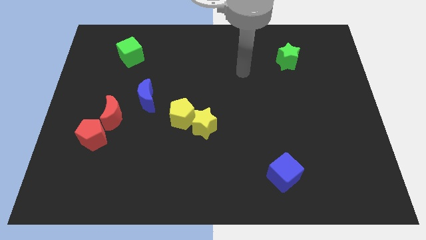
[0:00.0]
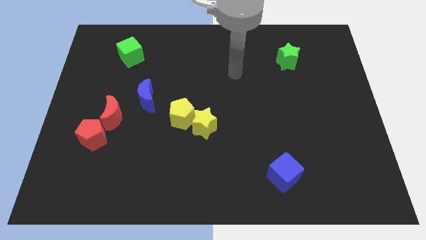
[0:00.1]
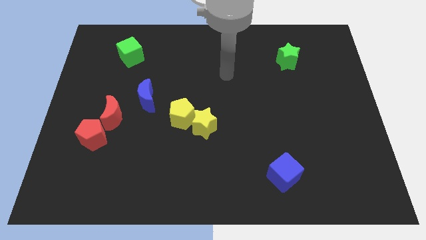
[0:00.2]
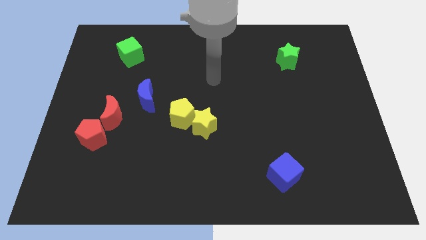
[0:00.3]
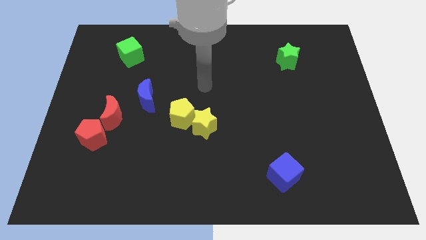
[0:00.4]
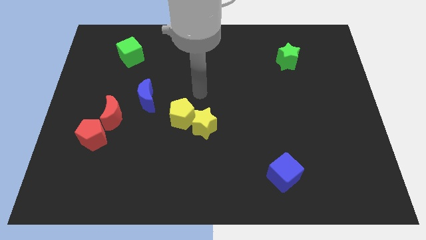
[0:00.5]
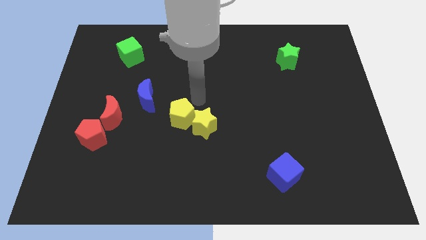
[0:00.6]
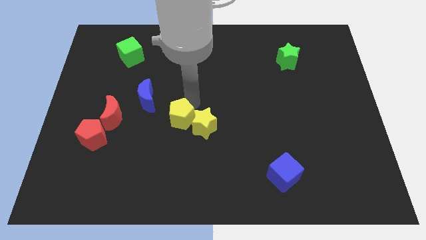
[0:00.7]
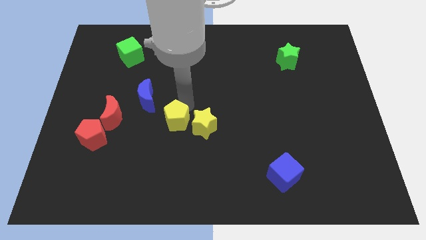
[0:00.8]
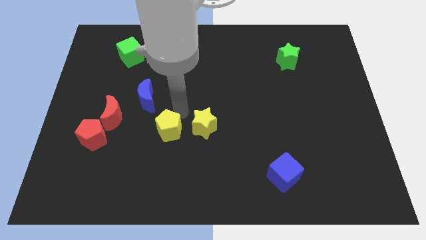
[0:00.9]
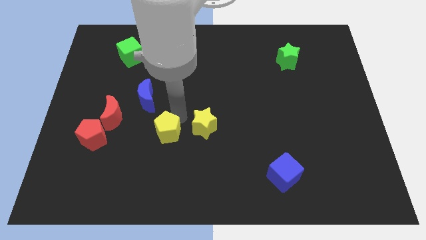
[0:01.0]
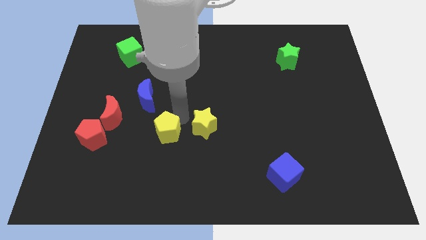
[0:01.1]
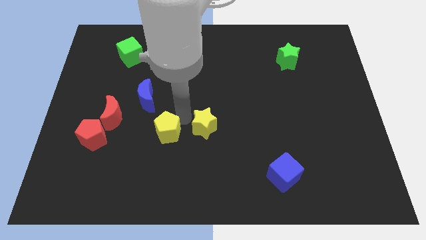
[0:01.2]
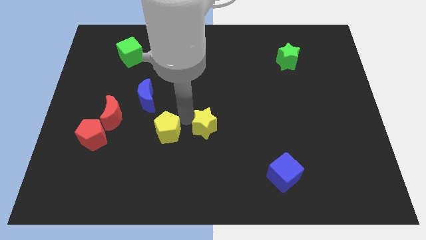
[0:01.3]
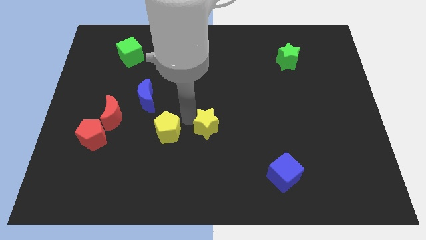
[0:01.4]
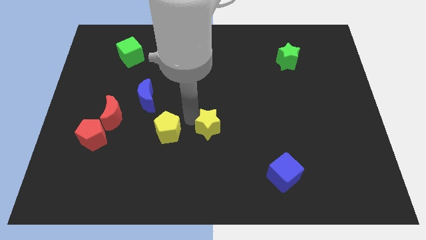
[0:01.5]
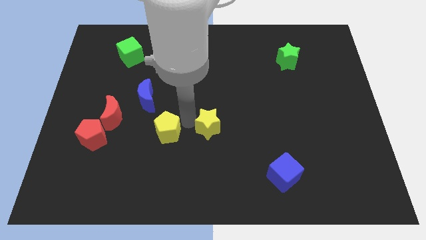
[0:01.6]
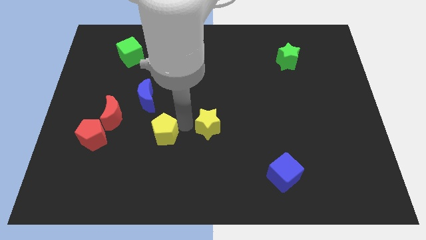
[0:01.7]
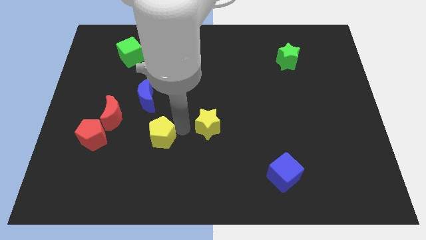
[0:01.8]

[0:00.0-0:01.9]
pull the yellow star apart from the yellow pentagon

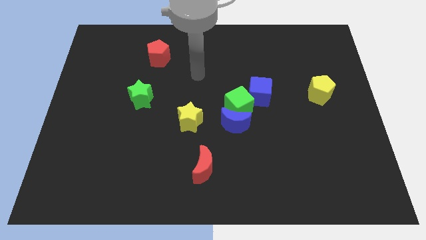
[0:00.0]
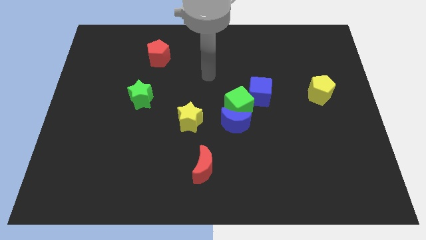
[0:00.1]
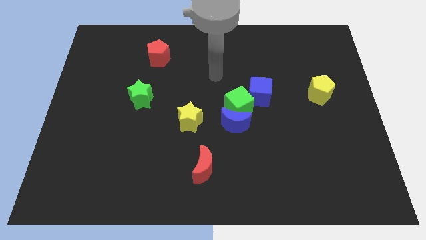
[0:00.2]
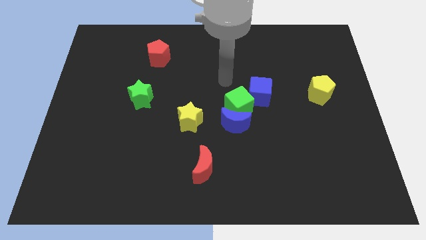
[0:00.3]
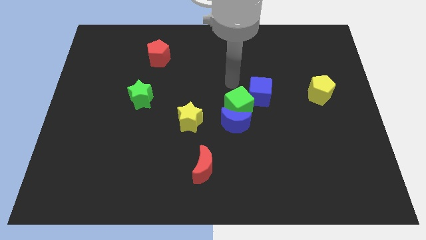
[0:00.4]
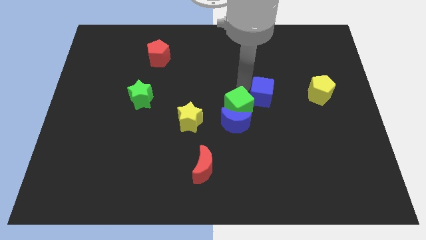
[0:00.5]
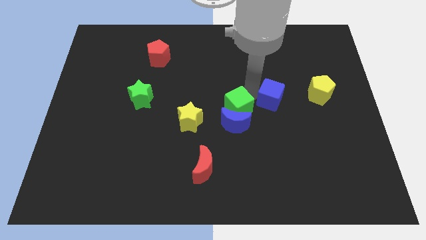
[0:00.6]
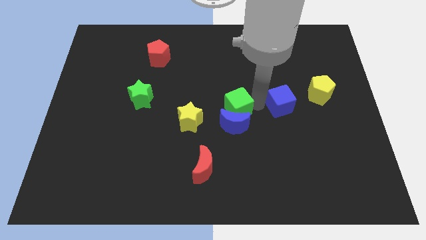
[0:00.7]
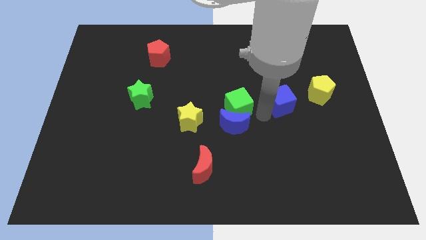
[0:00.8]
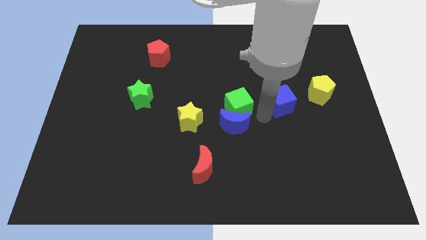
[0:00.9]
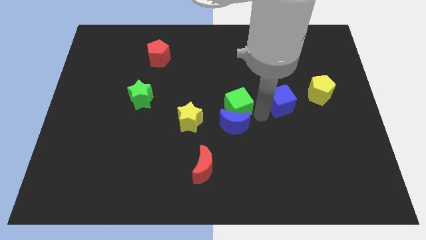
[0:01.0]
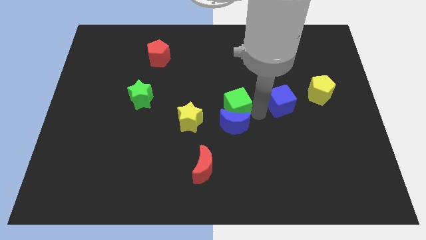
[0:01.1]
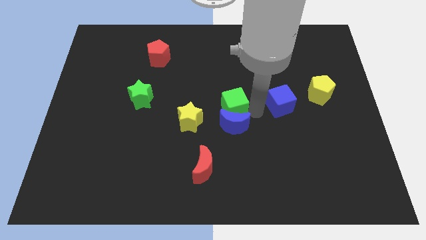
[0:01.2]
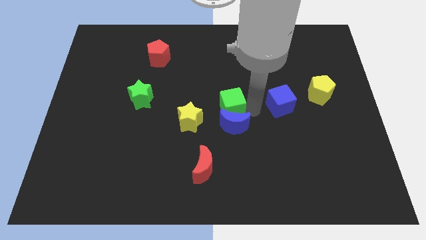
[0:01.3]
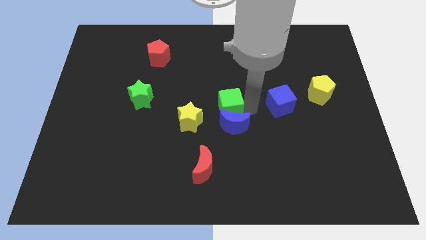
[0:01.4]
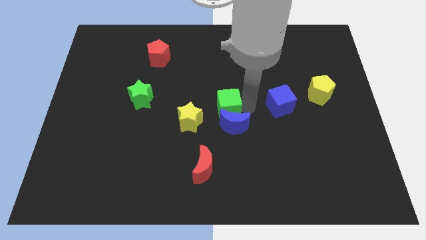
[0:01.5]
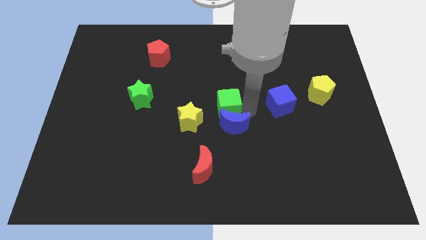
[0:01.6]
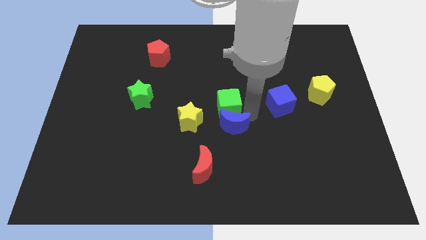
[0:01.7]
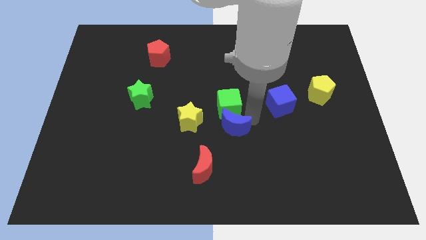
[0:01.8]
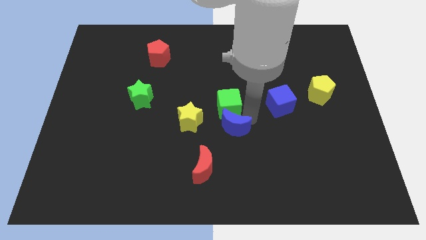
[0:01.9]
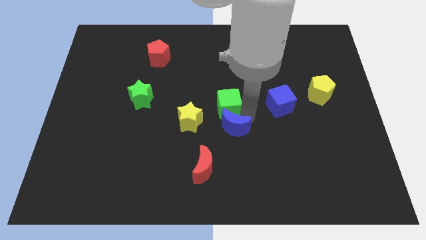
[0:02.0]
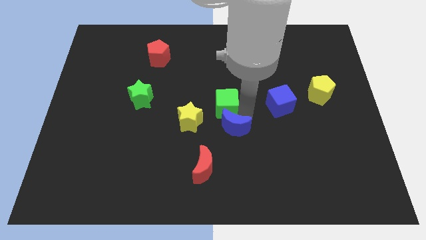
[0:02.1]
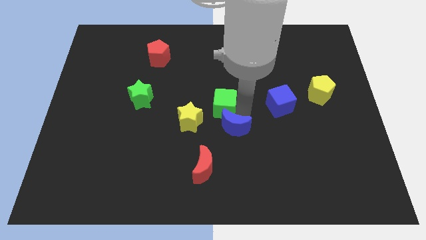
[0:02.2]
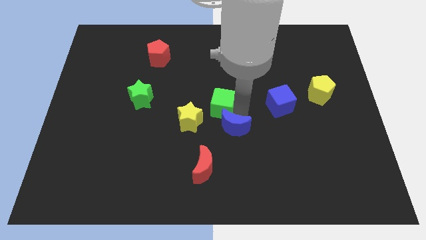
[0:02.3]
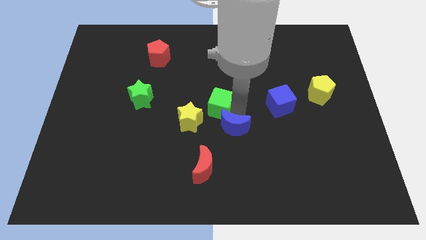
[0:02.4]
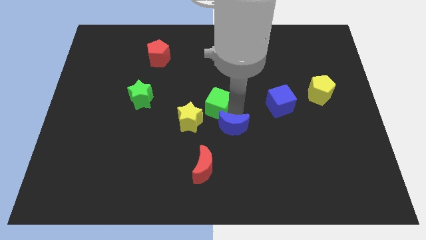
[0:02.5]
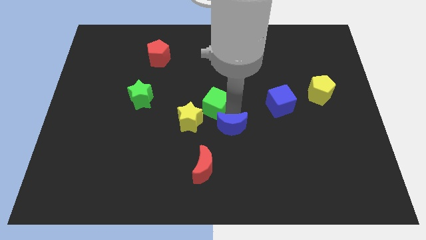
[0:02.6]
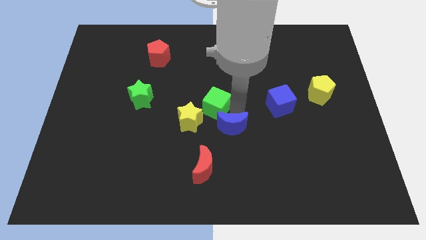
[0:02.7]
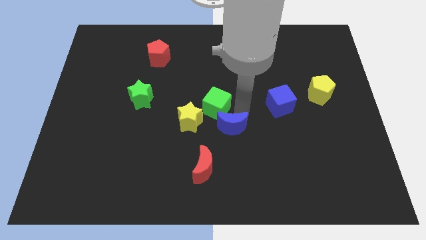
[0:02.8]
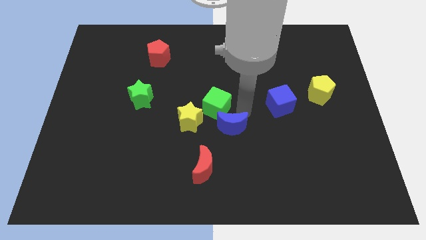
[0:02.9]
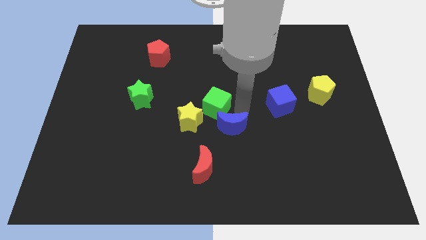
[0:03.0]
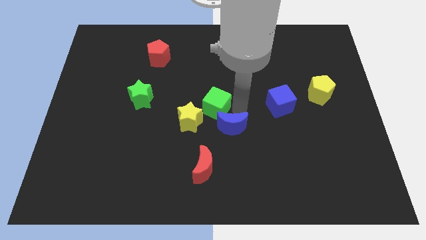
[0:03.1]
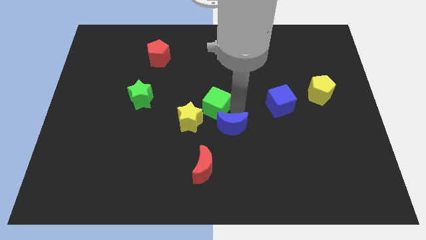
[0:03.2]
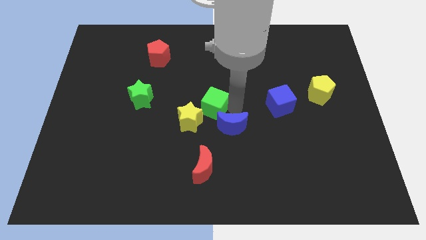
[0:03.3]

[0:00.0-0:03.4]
pull the green cube apart from the blue moon and blue cube

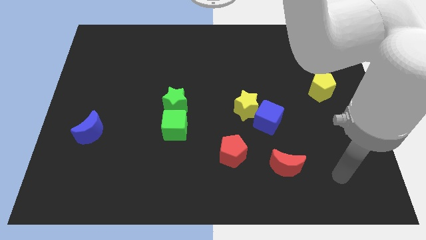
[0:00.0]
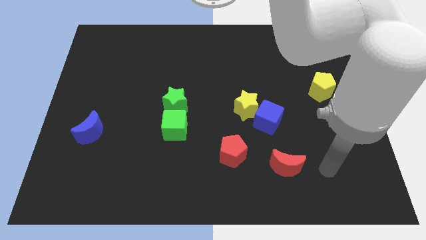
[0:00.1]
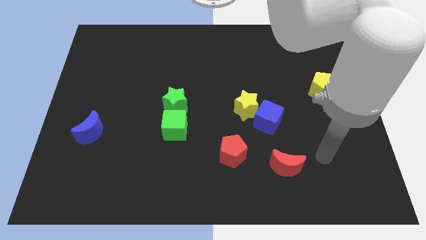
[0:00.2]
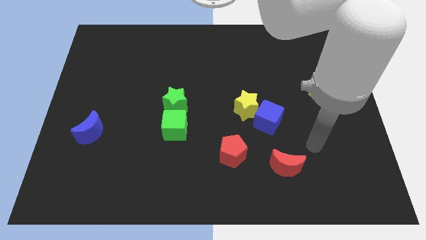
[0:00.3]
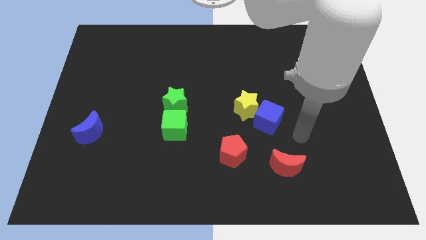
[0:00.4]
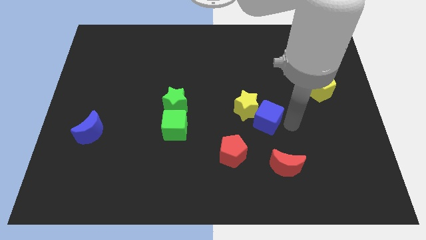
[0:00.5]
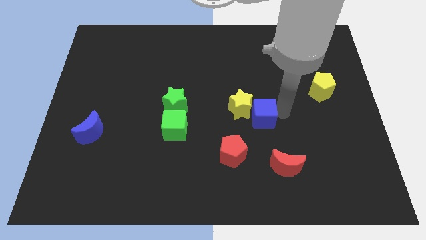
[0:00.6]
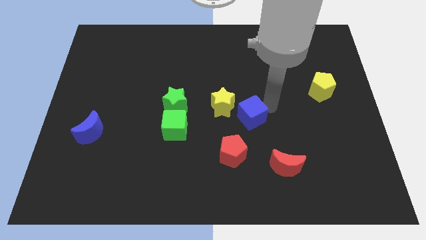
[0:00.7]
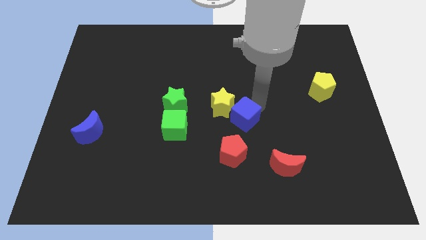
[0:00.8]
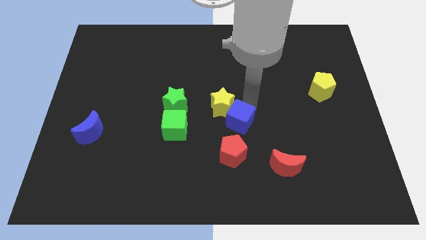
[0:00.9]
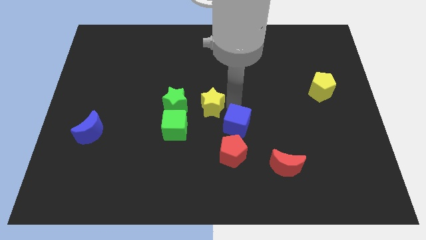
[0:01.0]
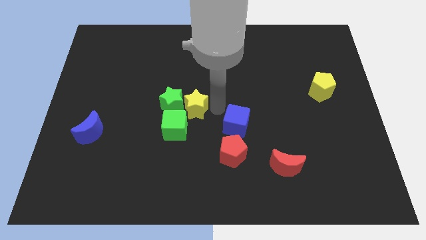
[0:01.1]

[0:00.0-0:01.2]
separate the blue cube from the yellow star

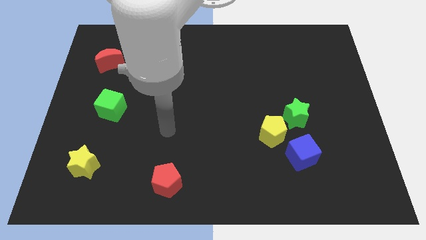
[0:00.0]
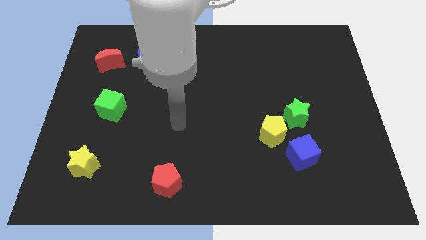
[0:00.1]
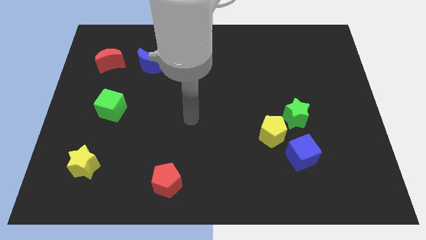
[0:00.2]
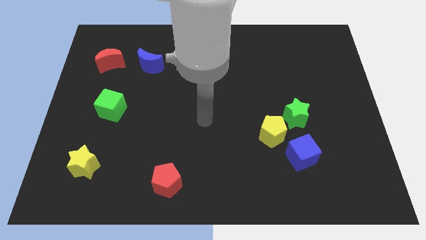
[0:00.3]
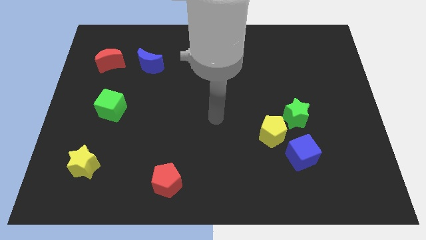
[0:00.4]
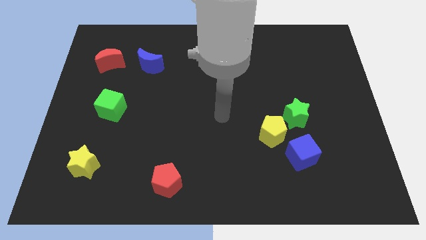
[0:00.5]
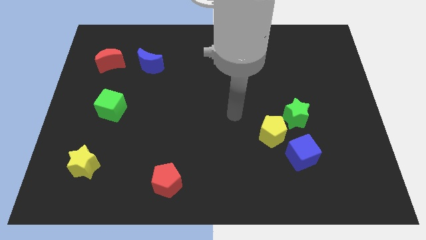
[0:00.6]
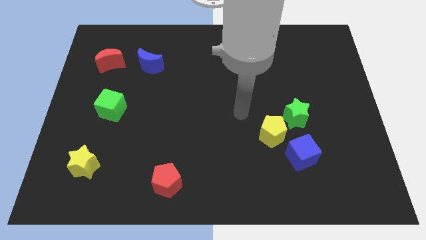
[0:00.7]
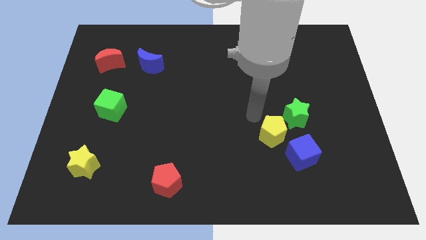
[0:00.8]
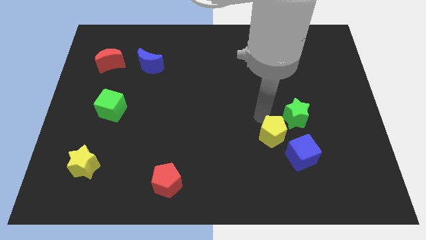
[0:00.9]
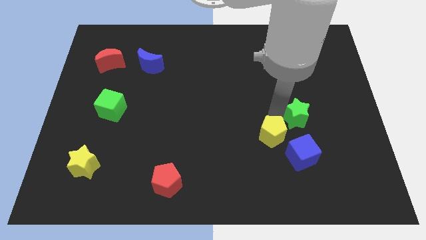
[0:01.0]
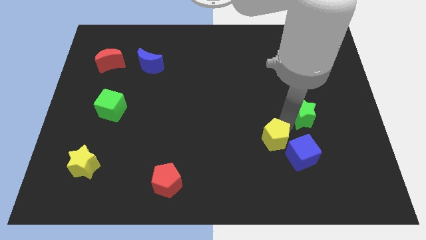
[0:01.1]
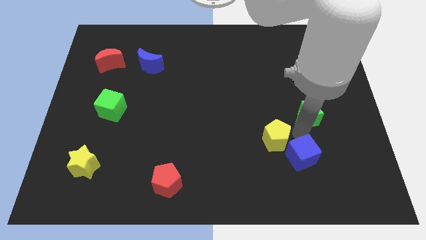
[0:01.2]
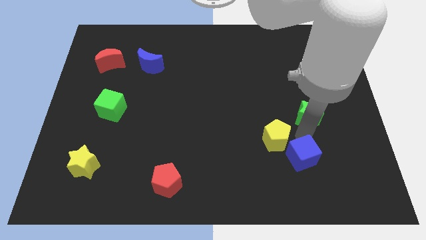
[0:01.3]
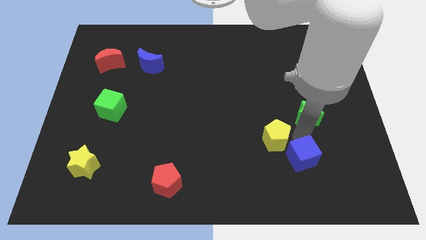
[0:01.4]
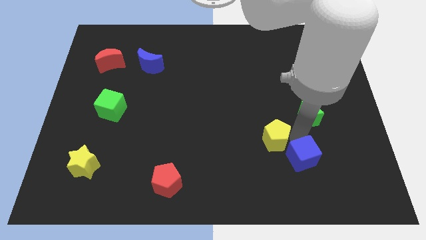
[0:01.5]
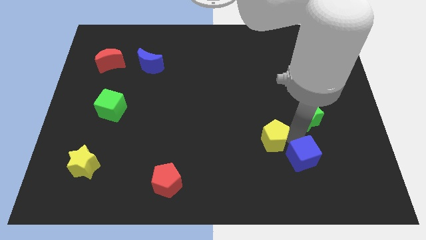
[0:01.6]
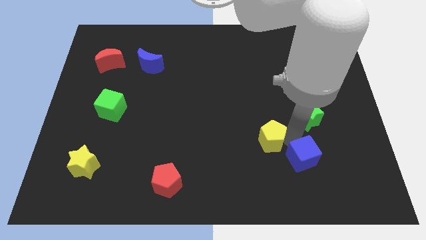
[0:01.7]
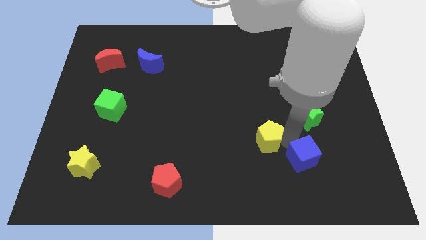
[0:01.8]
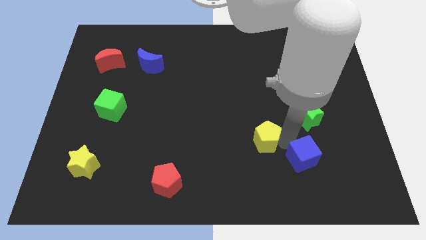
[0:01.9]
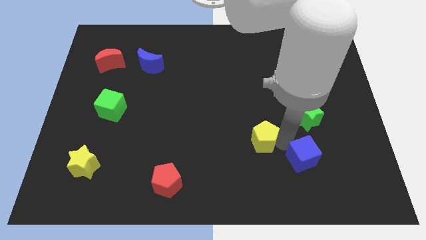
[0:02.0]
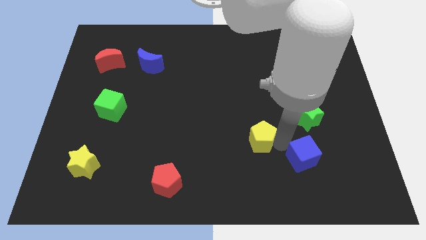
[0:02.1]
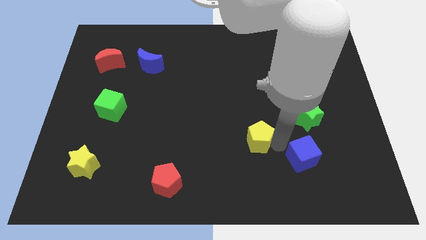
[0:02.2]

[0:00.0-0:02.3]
separate the yellow pentagon from the green star and blue cube

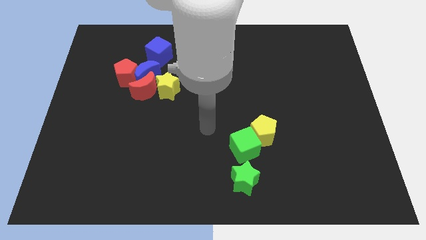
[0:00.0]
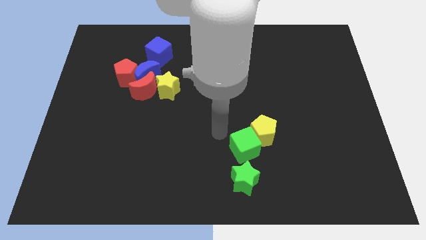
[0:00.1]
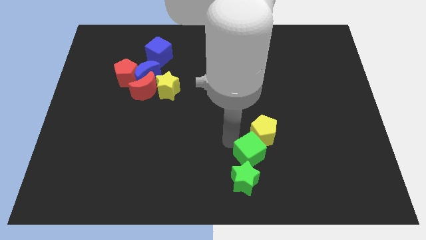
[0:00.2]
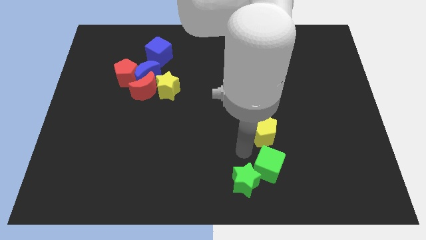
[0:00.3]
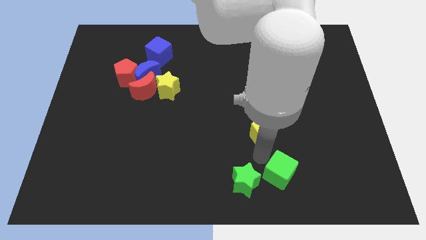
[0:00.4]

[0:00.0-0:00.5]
separate the yellow pentagon from the green cube
